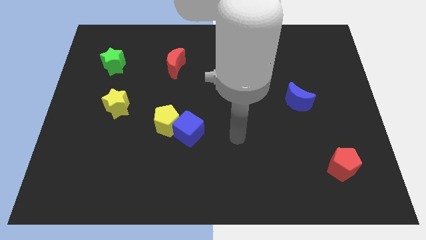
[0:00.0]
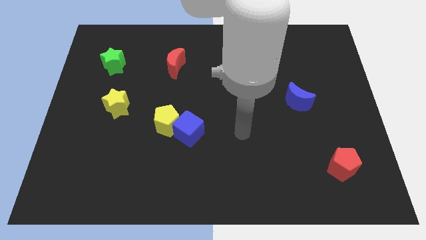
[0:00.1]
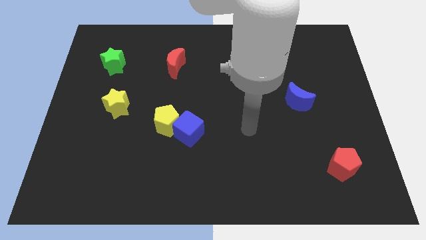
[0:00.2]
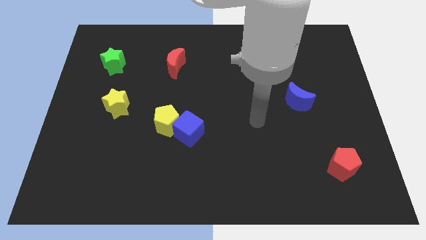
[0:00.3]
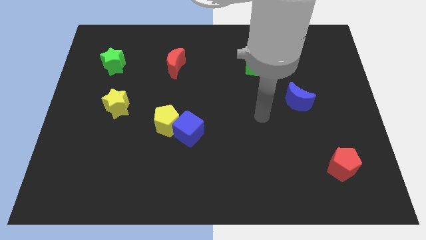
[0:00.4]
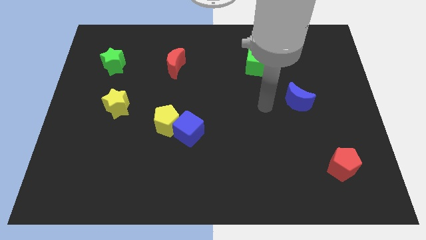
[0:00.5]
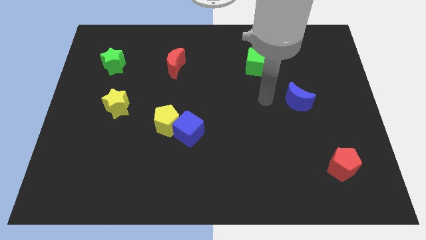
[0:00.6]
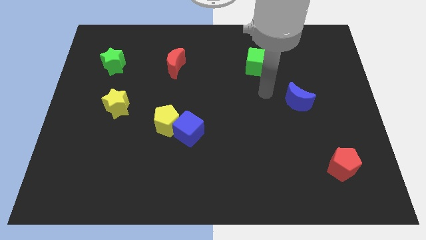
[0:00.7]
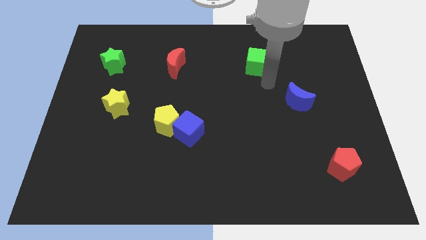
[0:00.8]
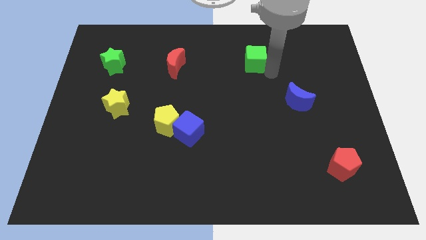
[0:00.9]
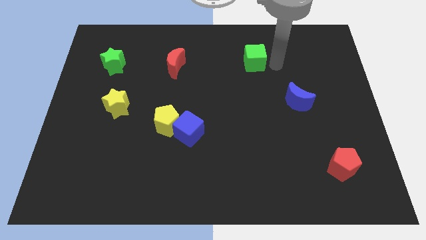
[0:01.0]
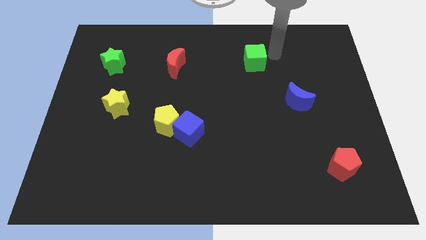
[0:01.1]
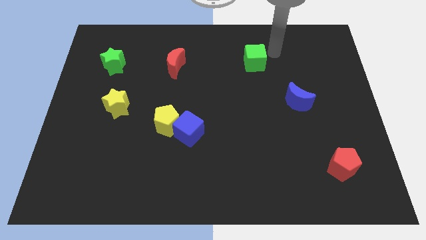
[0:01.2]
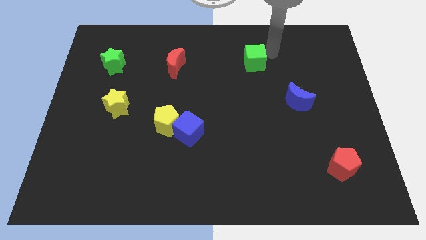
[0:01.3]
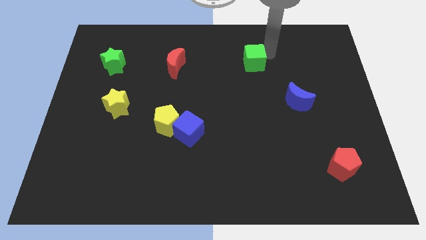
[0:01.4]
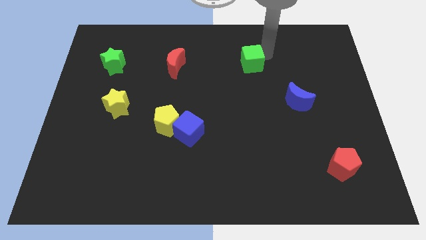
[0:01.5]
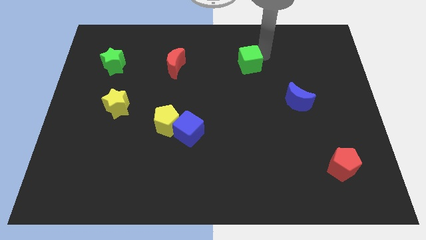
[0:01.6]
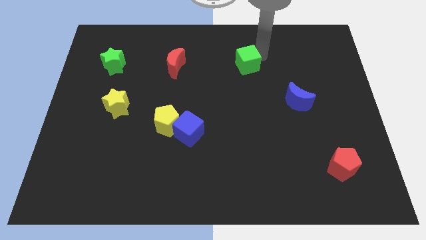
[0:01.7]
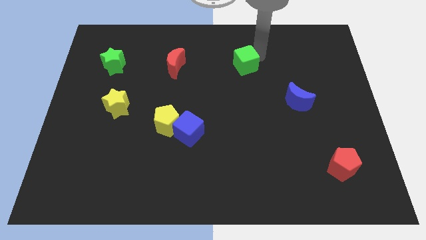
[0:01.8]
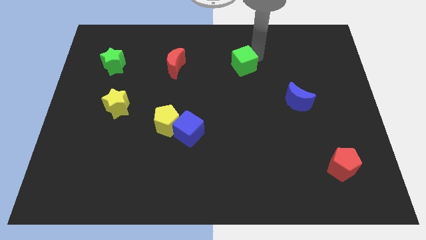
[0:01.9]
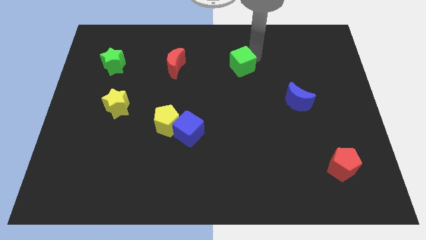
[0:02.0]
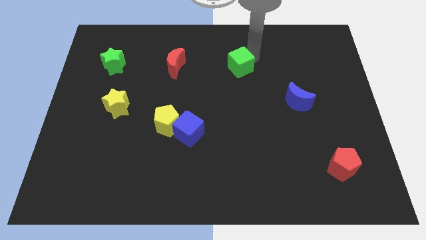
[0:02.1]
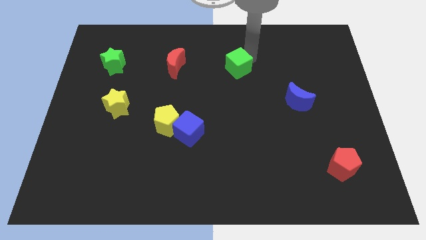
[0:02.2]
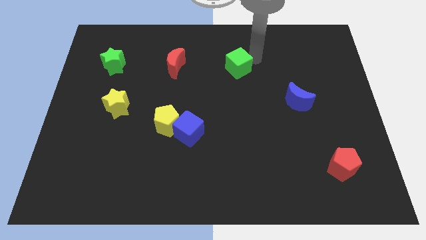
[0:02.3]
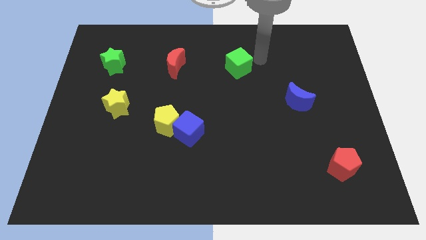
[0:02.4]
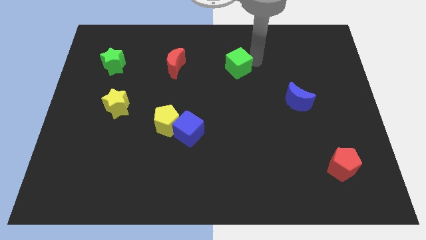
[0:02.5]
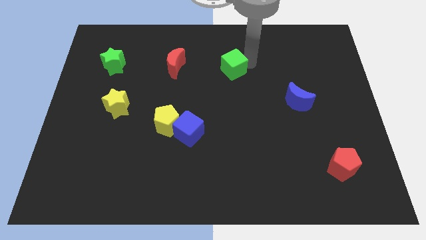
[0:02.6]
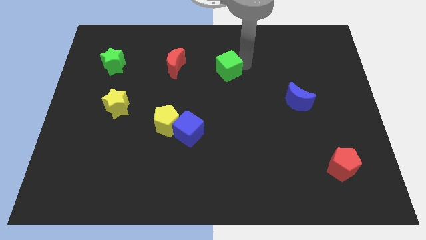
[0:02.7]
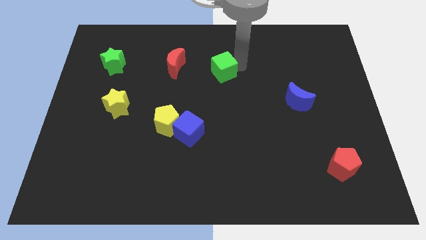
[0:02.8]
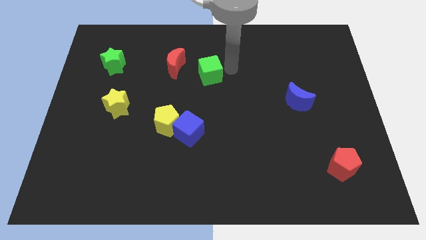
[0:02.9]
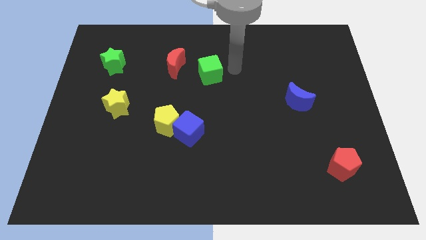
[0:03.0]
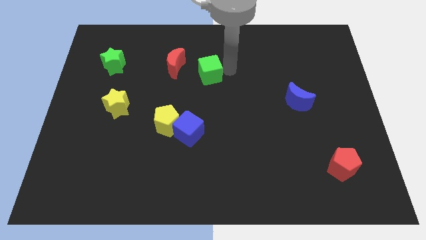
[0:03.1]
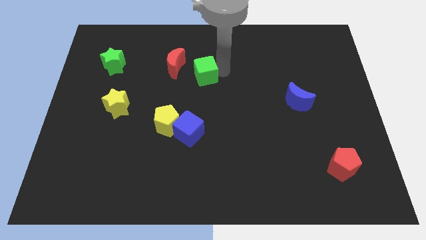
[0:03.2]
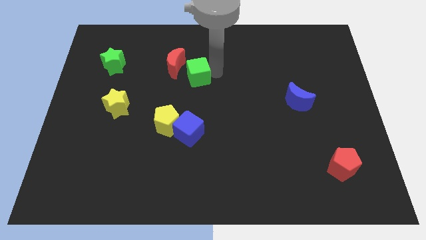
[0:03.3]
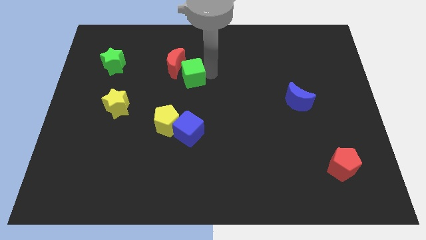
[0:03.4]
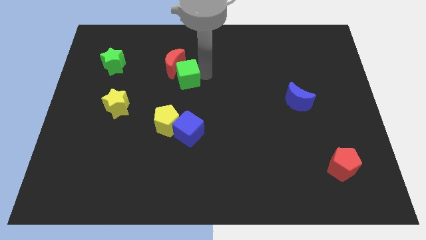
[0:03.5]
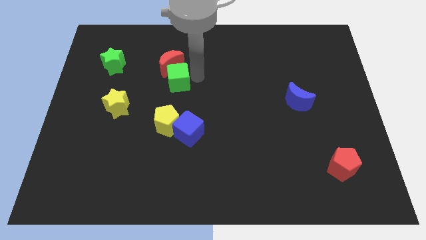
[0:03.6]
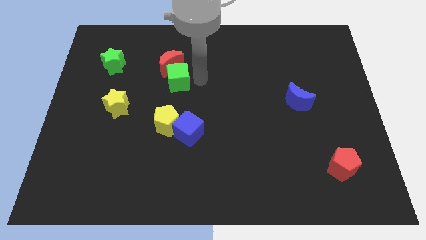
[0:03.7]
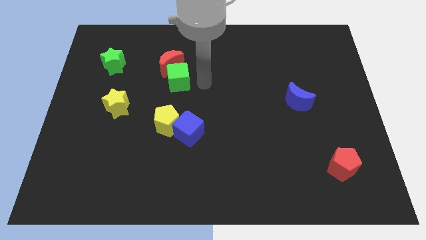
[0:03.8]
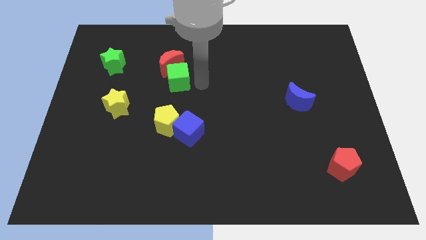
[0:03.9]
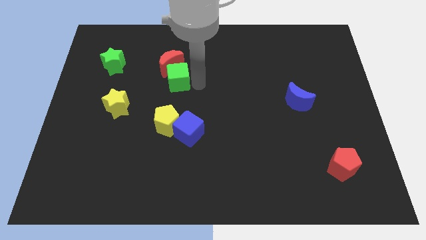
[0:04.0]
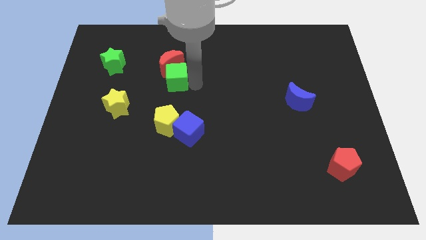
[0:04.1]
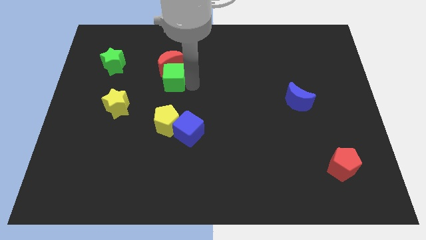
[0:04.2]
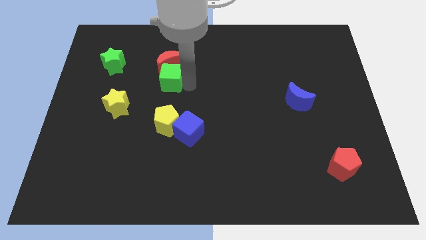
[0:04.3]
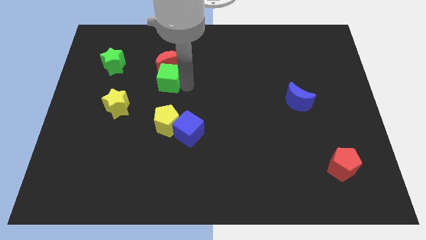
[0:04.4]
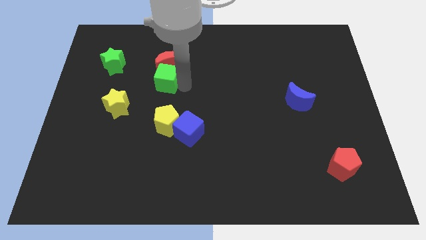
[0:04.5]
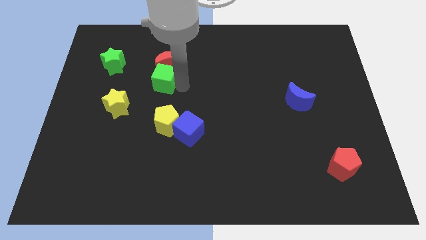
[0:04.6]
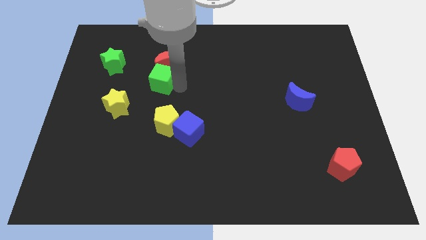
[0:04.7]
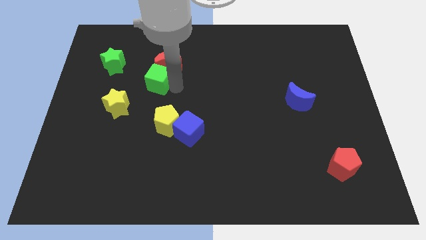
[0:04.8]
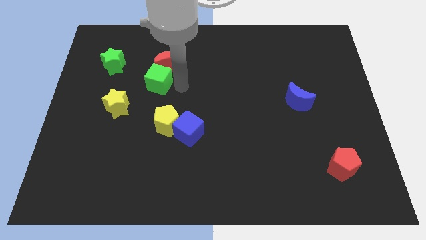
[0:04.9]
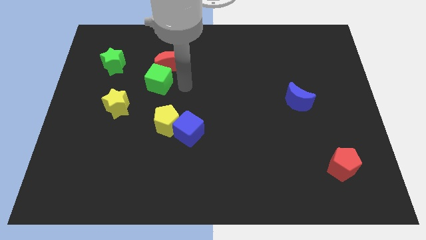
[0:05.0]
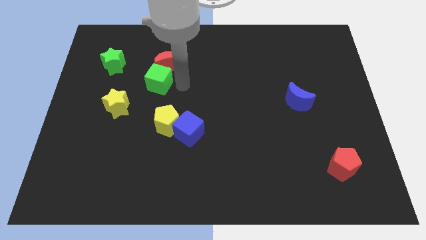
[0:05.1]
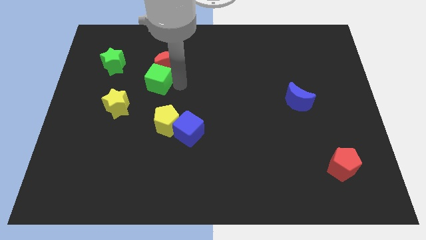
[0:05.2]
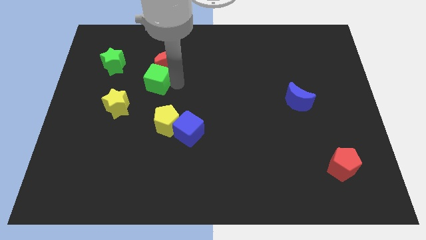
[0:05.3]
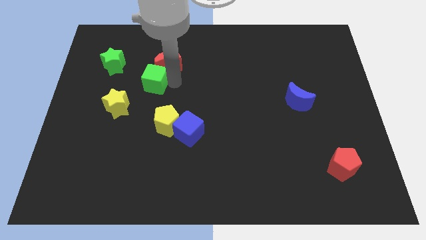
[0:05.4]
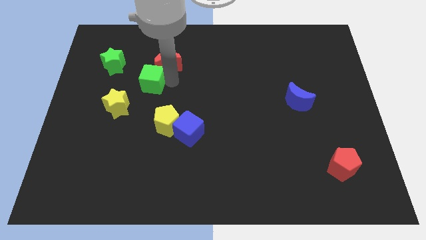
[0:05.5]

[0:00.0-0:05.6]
move the green cube diagonally down and to the right of the green star

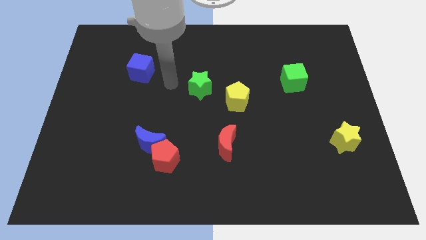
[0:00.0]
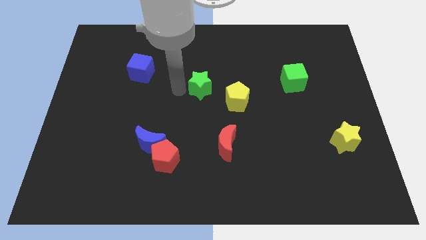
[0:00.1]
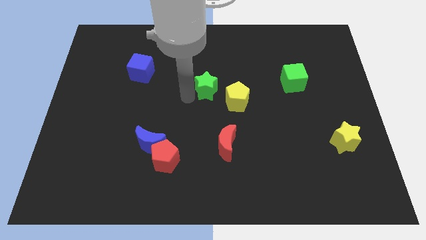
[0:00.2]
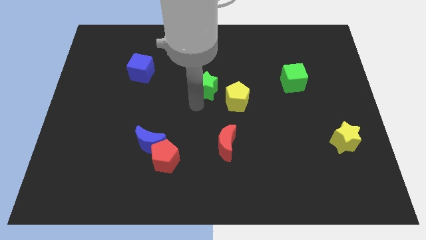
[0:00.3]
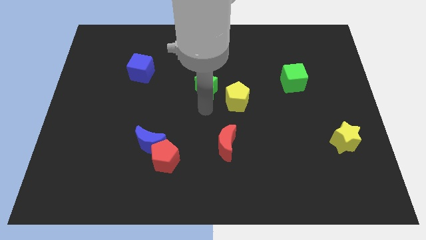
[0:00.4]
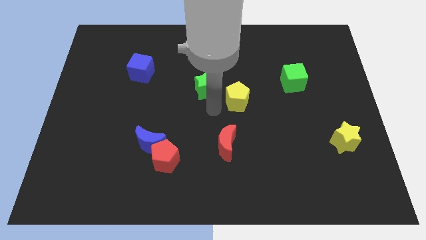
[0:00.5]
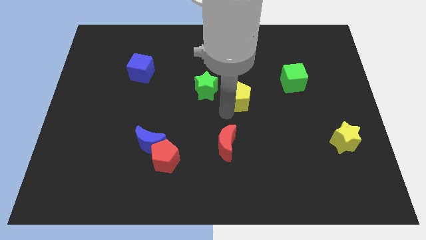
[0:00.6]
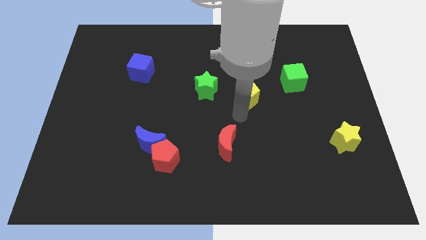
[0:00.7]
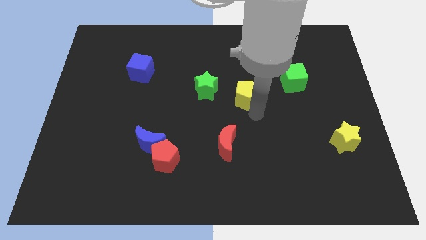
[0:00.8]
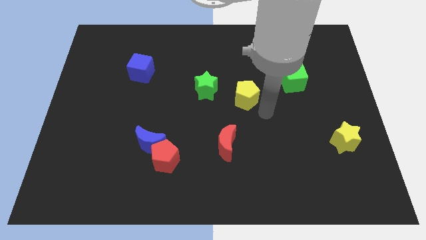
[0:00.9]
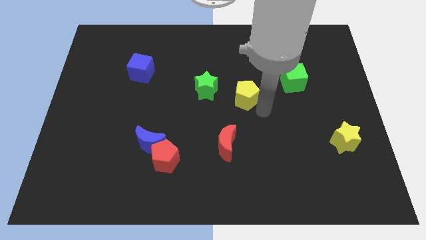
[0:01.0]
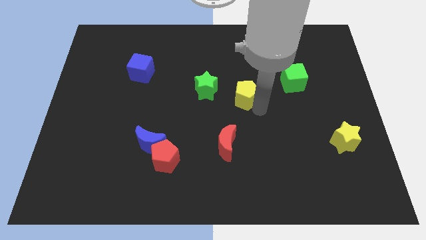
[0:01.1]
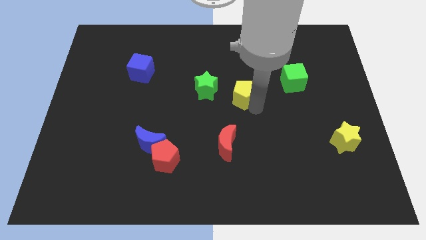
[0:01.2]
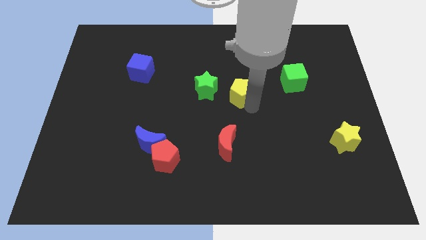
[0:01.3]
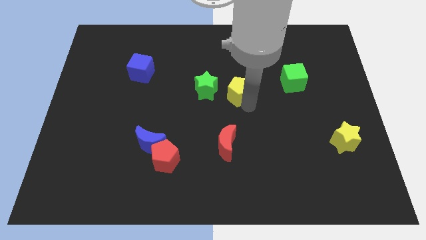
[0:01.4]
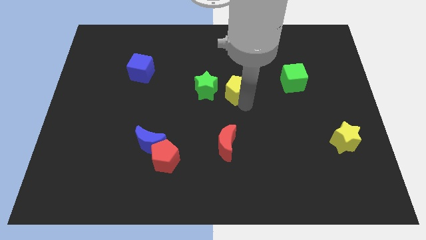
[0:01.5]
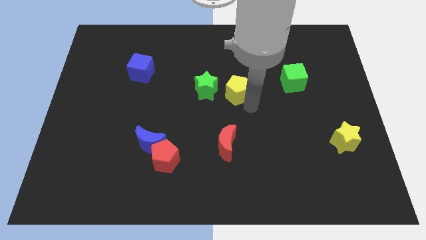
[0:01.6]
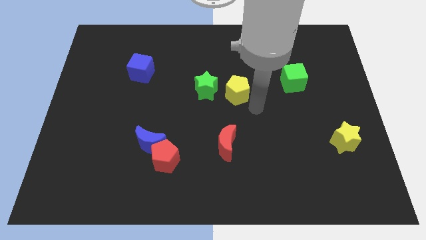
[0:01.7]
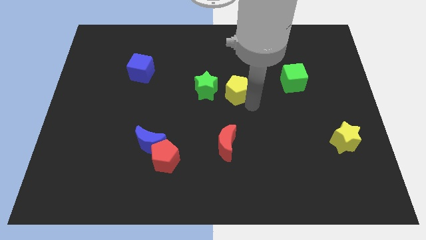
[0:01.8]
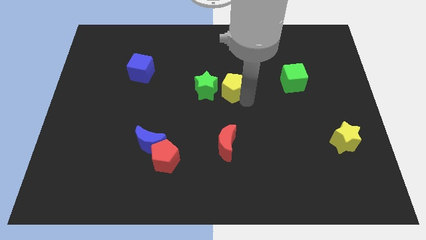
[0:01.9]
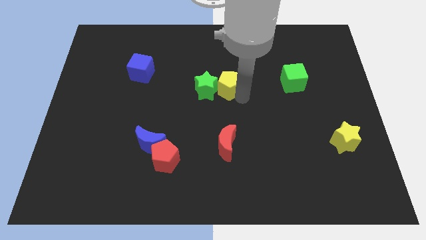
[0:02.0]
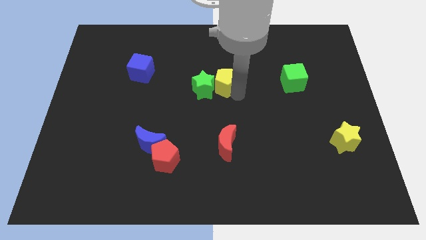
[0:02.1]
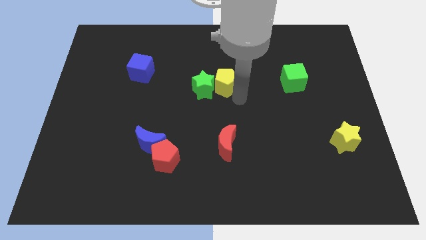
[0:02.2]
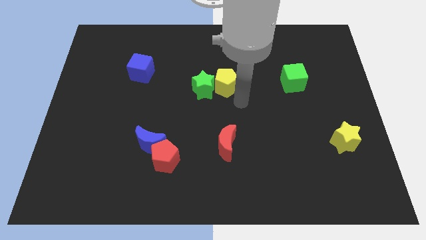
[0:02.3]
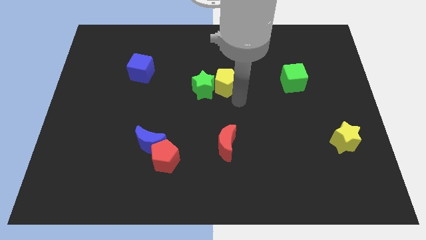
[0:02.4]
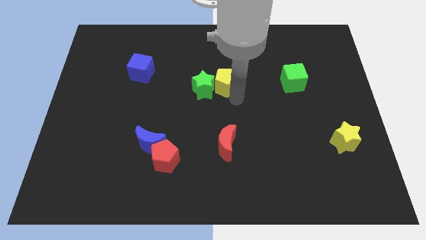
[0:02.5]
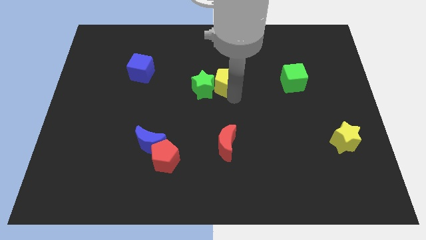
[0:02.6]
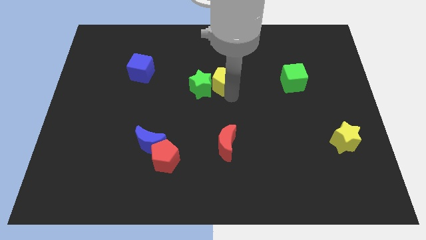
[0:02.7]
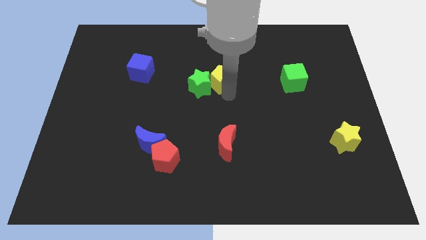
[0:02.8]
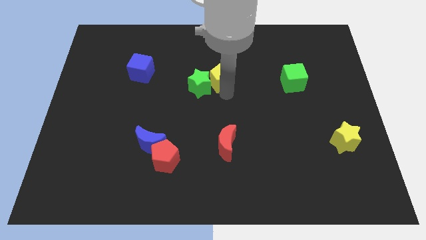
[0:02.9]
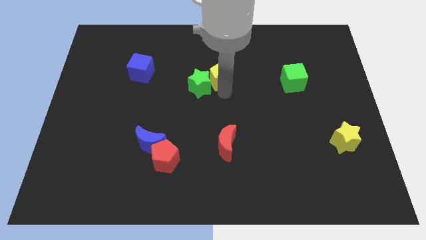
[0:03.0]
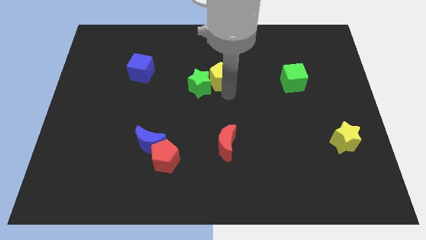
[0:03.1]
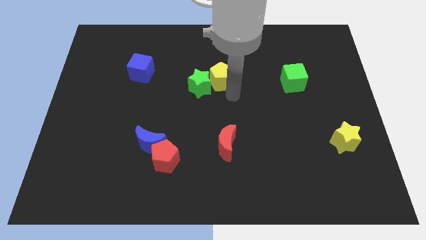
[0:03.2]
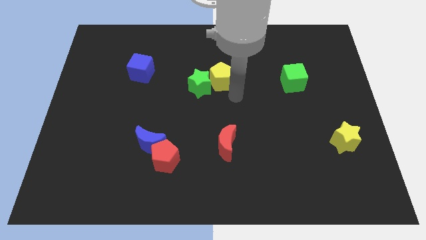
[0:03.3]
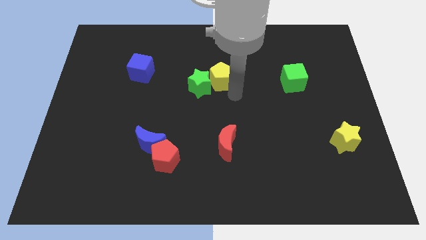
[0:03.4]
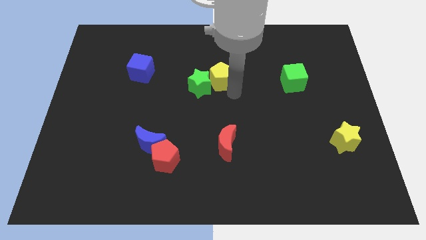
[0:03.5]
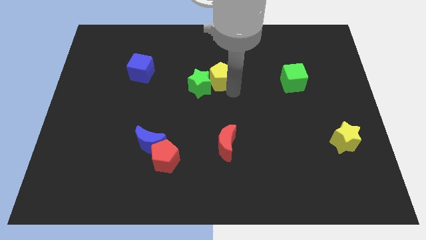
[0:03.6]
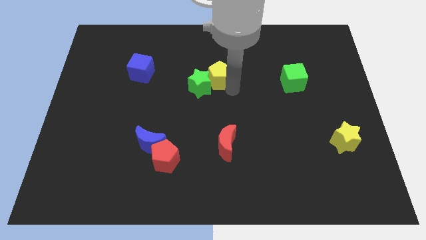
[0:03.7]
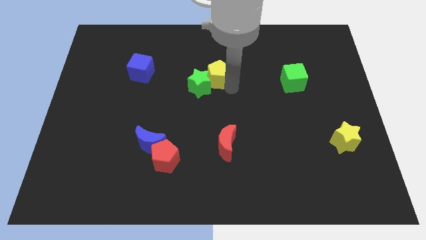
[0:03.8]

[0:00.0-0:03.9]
move the yellow pentagon to the top of the green star
